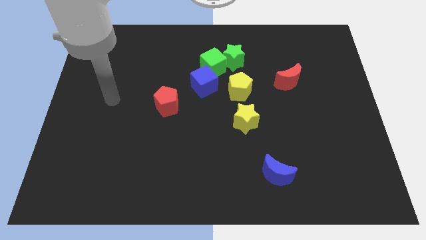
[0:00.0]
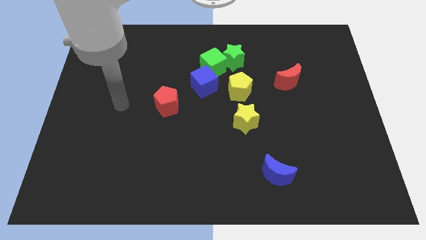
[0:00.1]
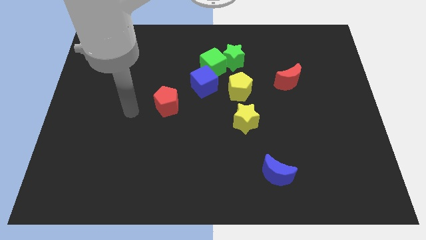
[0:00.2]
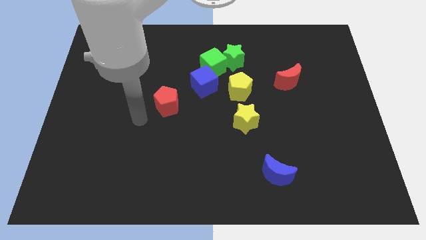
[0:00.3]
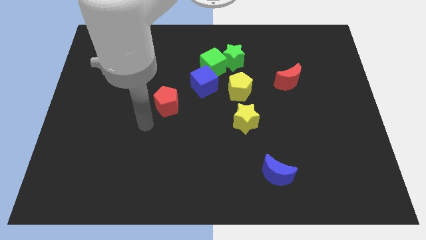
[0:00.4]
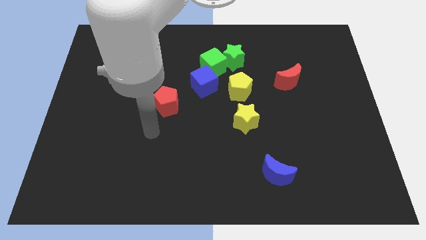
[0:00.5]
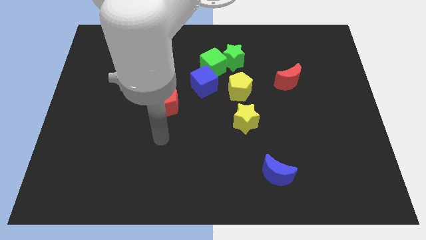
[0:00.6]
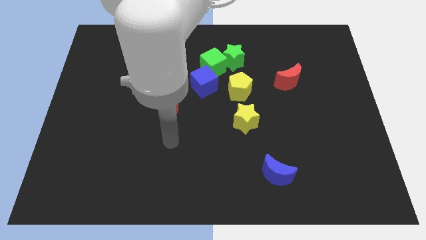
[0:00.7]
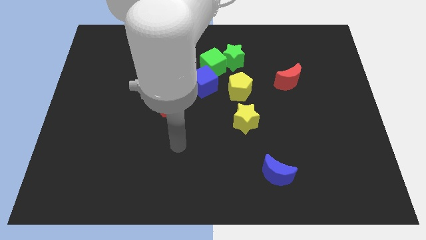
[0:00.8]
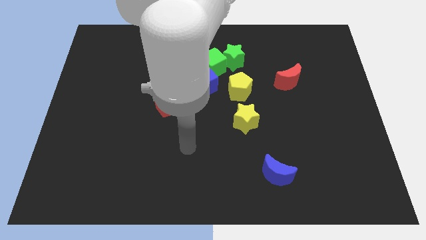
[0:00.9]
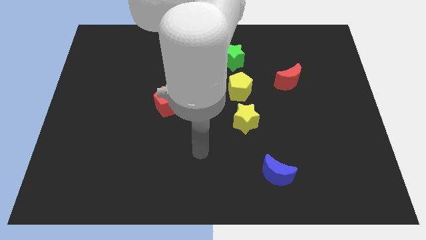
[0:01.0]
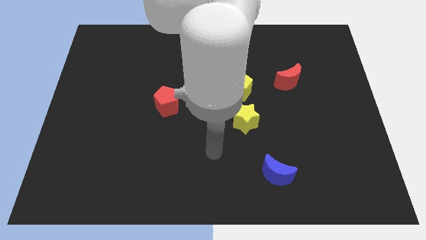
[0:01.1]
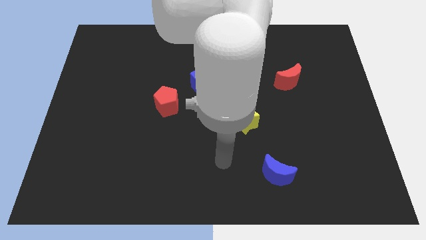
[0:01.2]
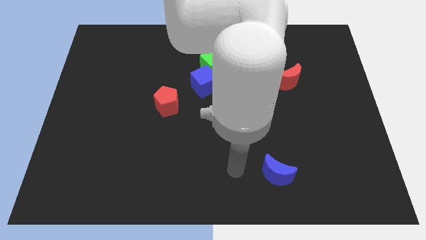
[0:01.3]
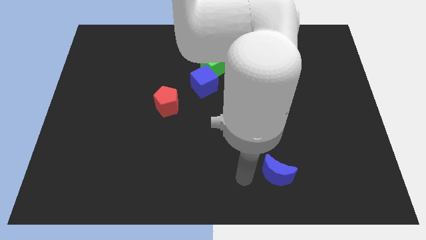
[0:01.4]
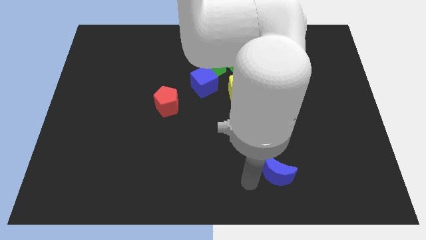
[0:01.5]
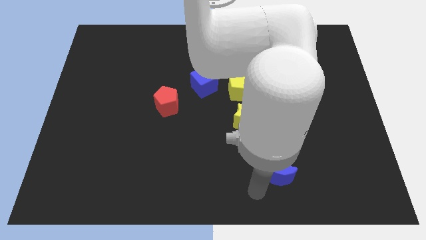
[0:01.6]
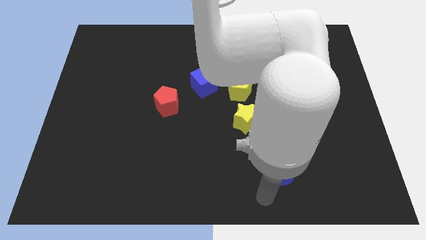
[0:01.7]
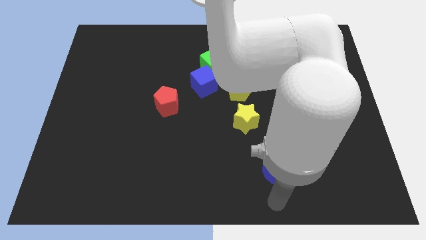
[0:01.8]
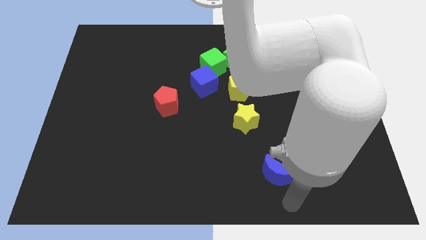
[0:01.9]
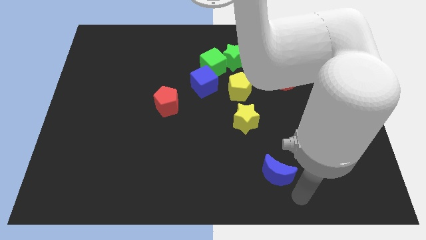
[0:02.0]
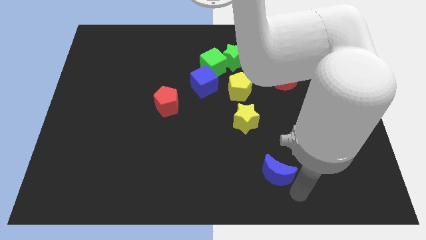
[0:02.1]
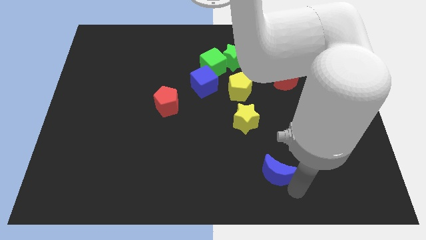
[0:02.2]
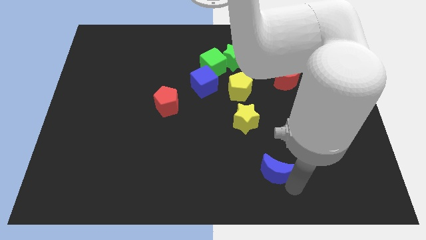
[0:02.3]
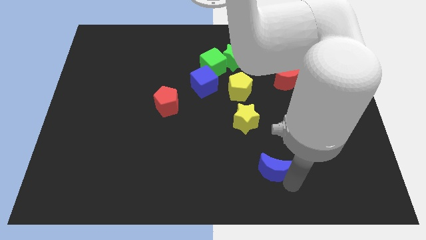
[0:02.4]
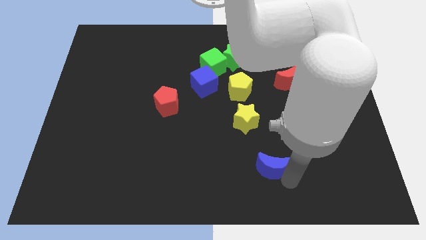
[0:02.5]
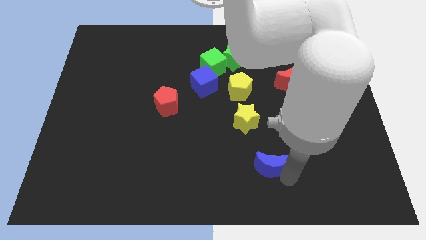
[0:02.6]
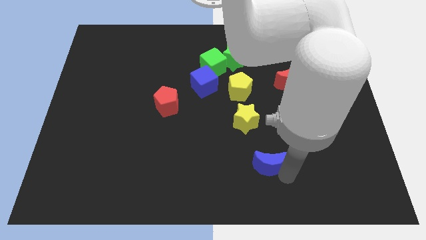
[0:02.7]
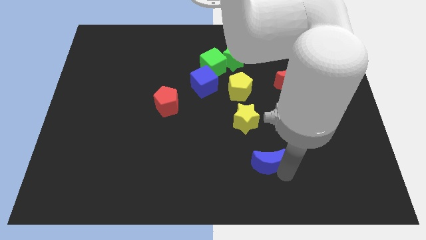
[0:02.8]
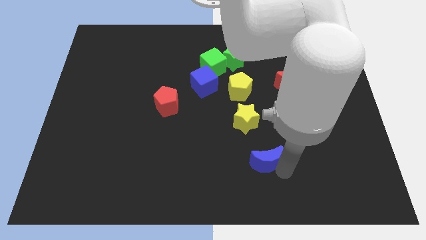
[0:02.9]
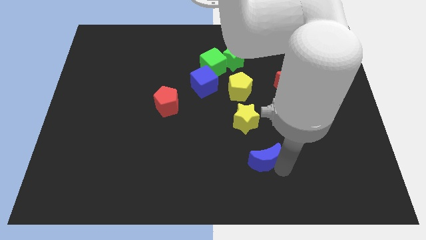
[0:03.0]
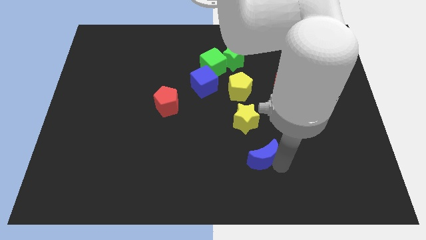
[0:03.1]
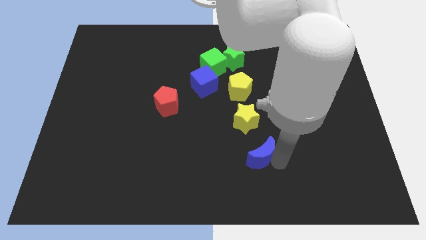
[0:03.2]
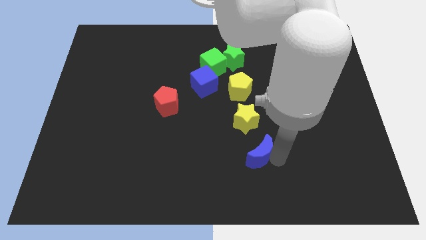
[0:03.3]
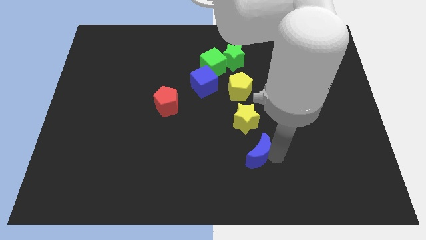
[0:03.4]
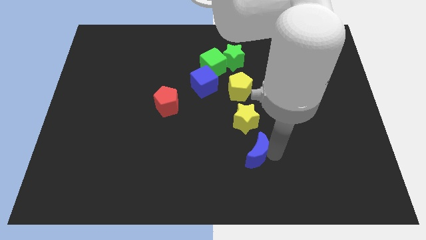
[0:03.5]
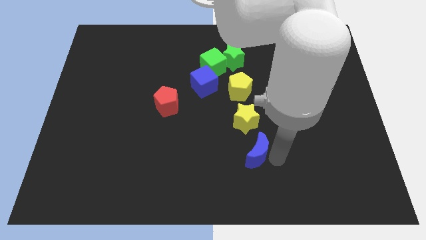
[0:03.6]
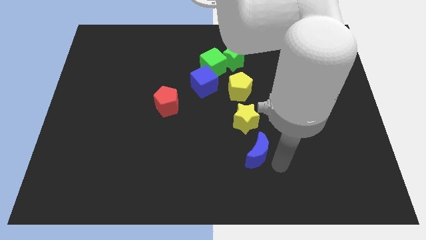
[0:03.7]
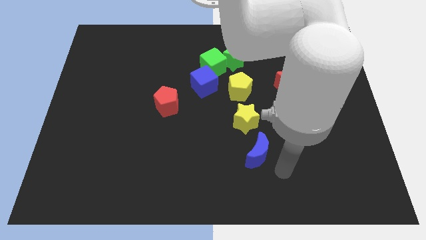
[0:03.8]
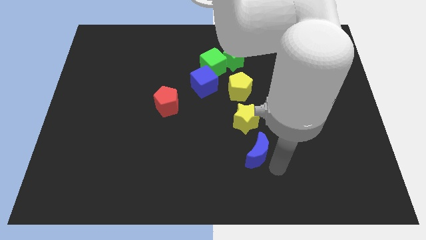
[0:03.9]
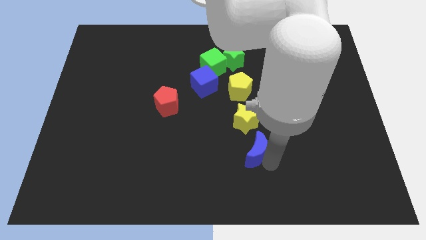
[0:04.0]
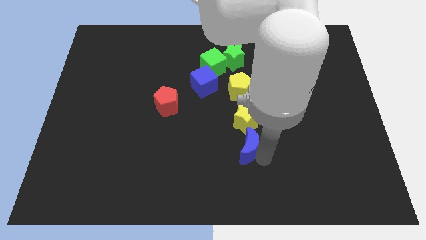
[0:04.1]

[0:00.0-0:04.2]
move the blue moon diagonally upwards and to the left a little bit

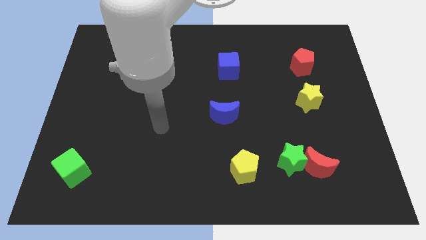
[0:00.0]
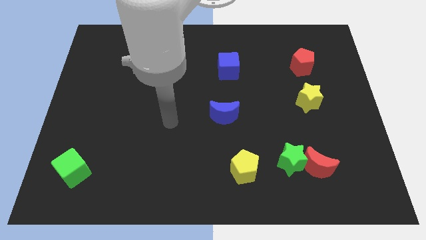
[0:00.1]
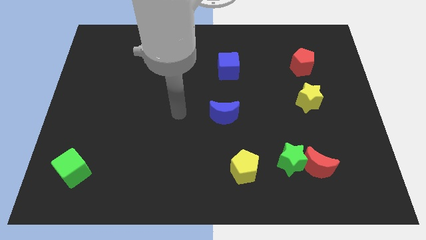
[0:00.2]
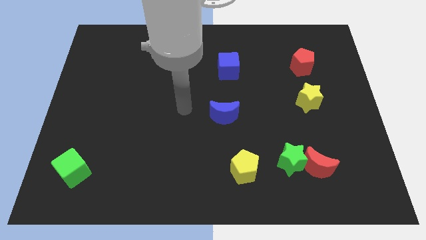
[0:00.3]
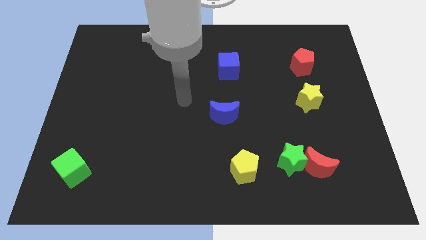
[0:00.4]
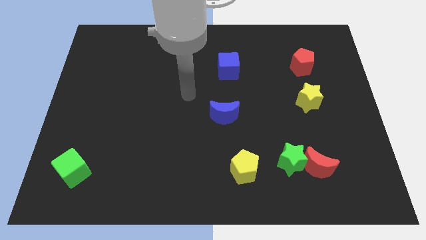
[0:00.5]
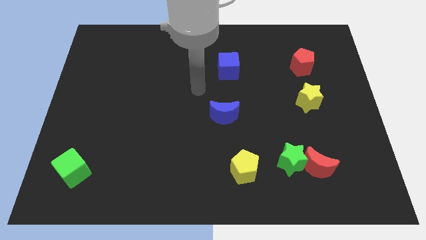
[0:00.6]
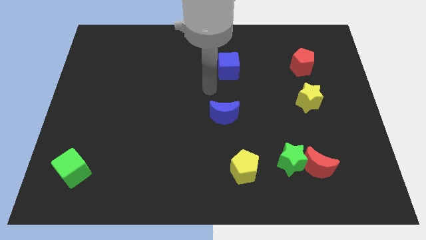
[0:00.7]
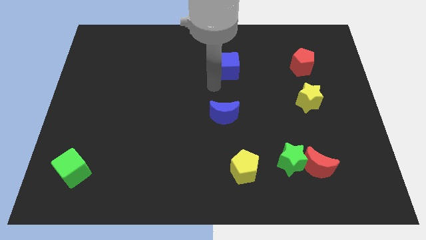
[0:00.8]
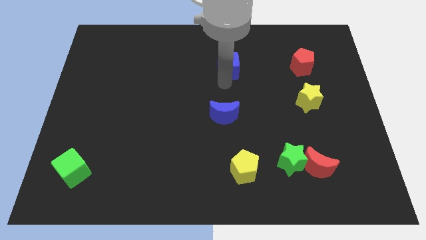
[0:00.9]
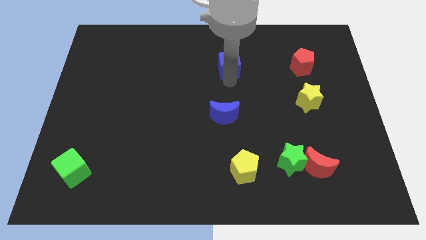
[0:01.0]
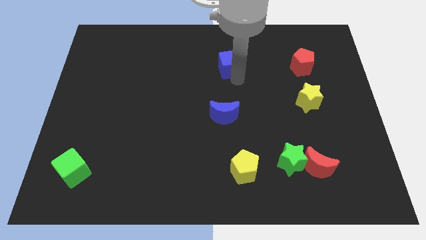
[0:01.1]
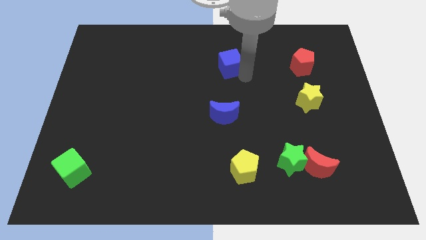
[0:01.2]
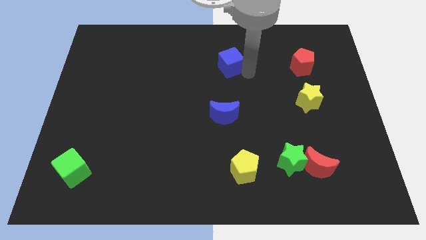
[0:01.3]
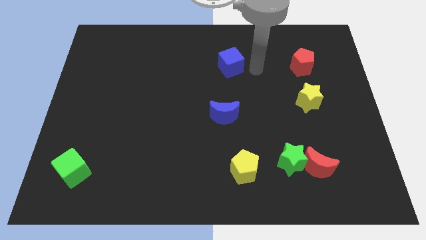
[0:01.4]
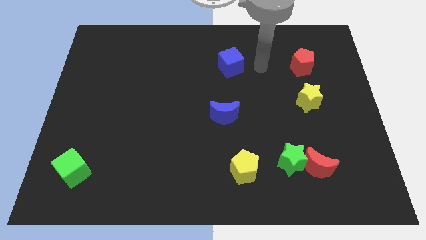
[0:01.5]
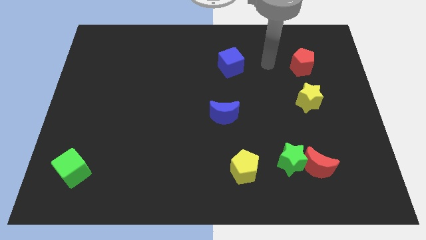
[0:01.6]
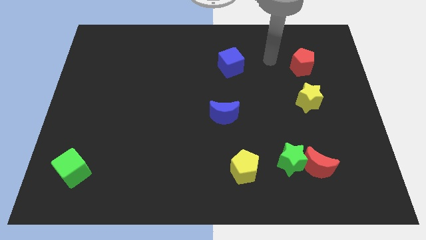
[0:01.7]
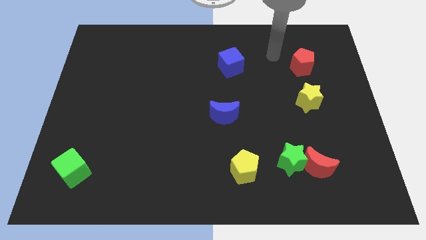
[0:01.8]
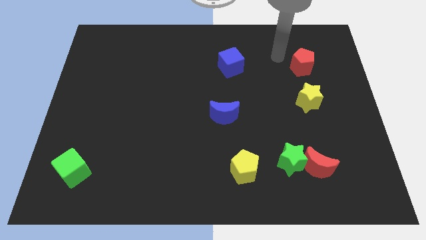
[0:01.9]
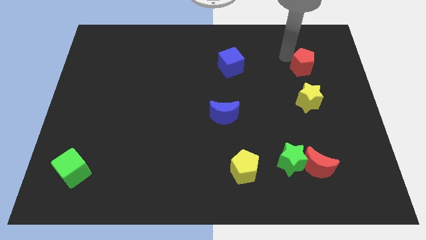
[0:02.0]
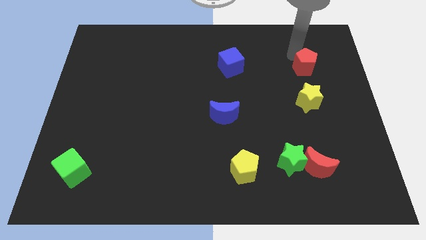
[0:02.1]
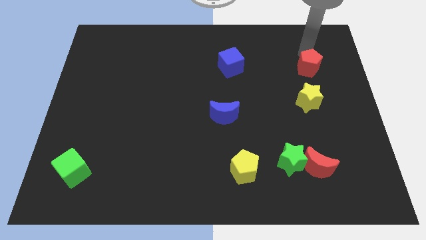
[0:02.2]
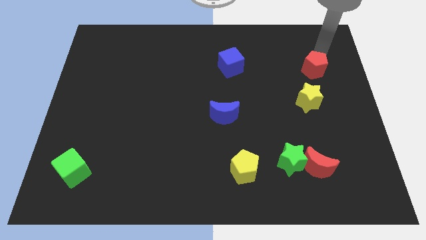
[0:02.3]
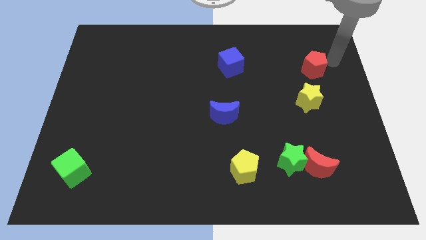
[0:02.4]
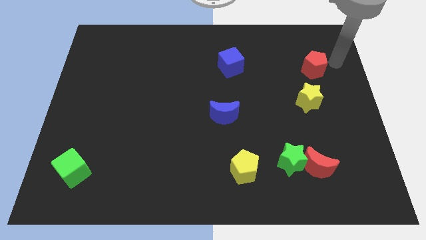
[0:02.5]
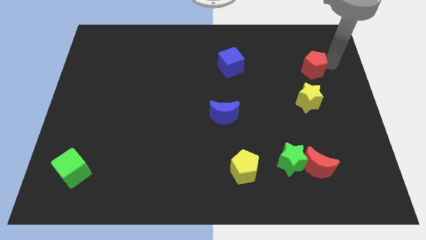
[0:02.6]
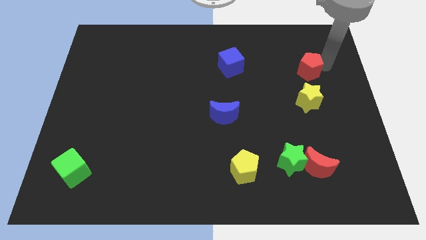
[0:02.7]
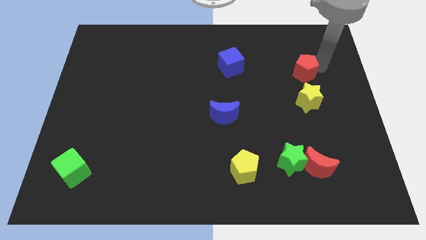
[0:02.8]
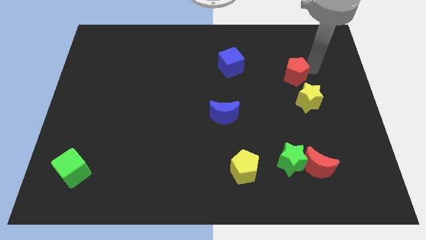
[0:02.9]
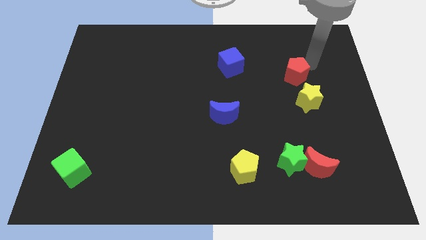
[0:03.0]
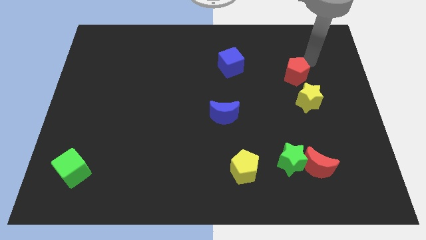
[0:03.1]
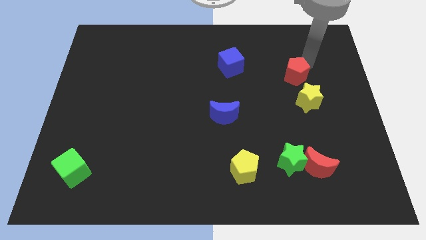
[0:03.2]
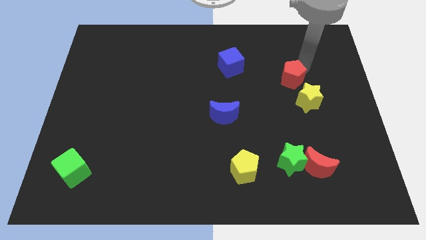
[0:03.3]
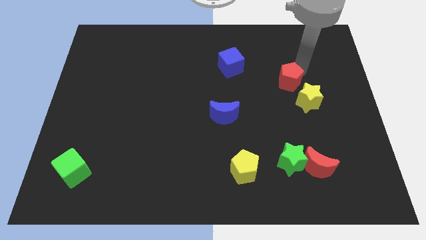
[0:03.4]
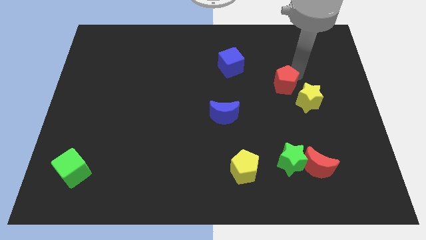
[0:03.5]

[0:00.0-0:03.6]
slightly move the red pentagon down and left diagonally
